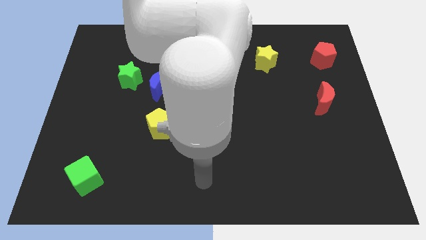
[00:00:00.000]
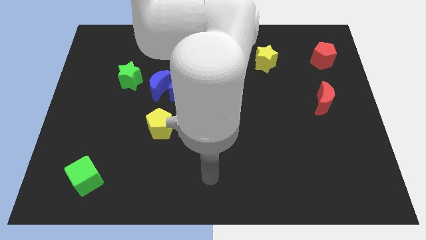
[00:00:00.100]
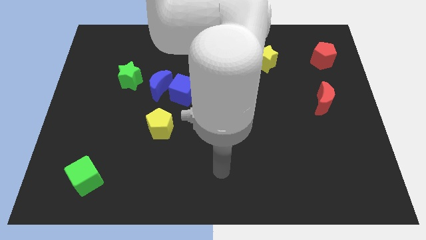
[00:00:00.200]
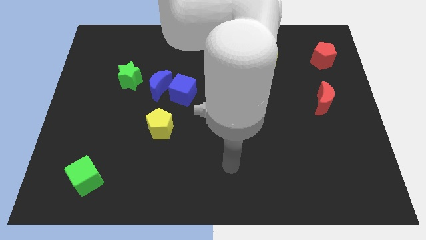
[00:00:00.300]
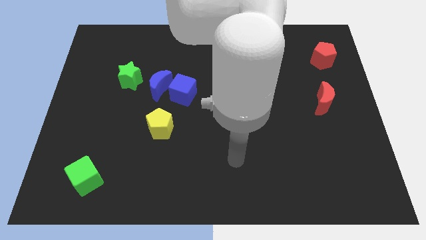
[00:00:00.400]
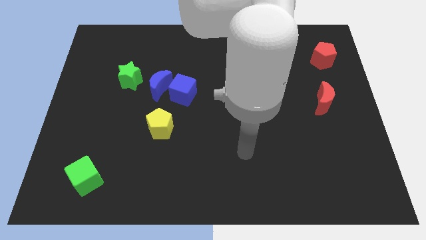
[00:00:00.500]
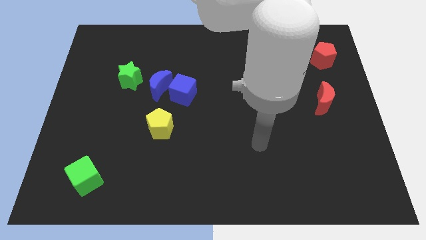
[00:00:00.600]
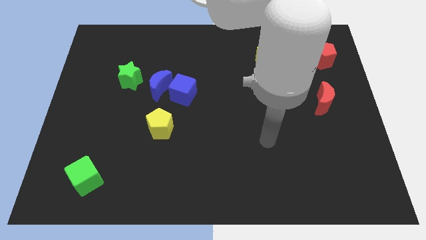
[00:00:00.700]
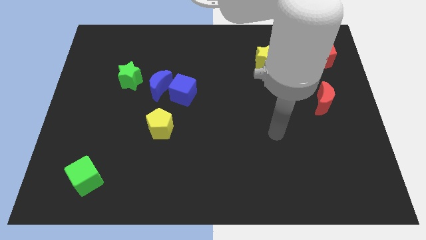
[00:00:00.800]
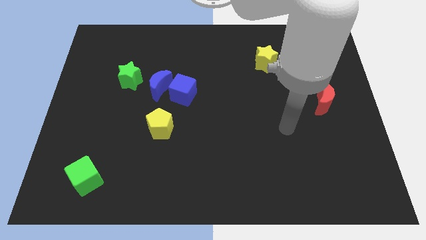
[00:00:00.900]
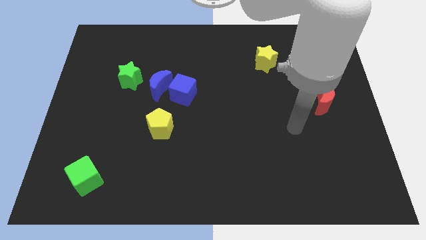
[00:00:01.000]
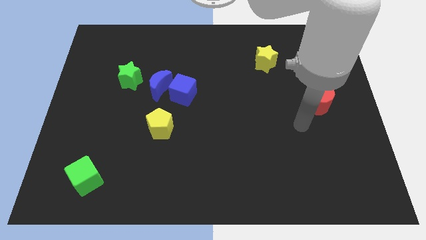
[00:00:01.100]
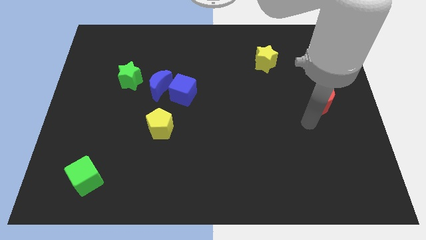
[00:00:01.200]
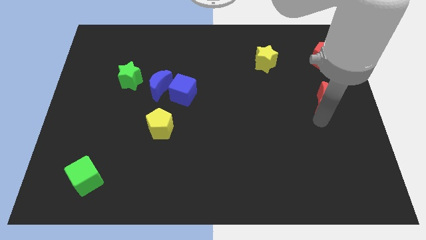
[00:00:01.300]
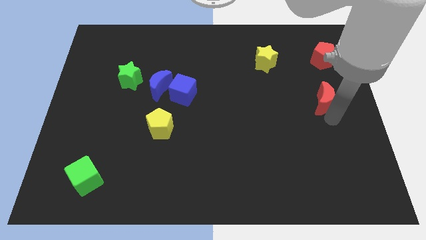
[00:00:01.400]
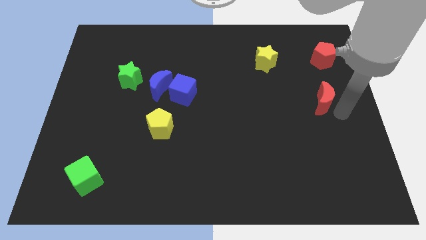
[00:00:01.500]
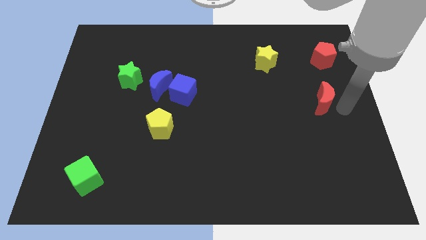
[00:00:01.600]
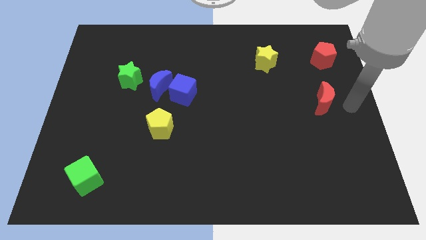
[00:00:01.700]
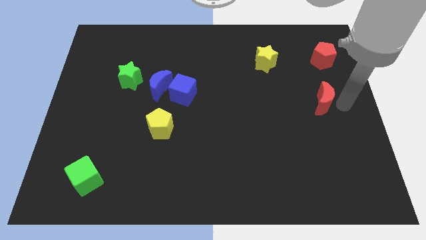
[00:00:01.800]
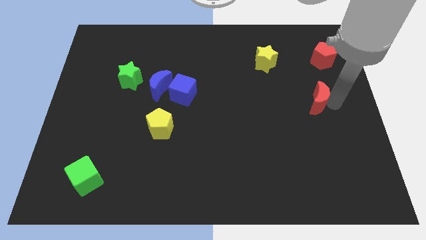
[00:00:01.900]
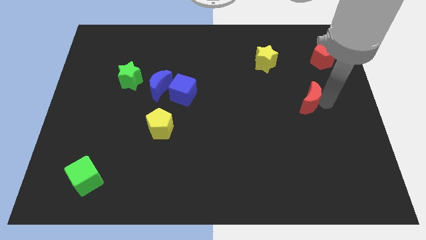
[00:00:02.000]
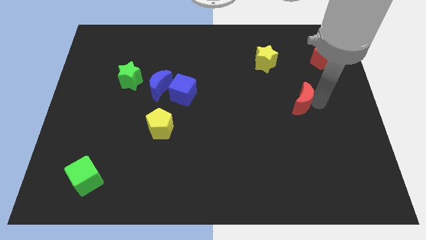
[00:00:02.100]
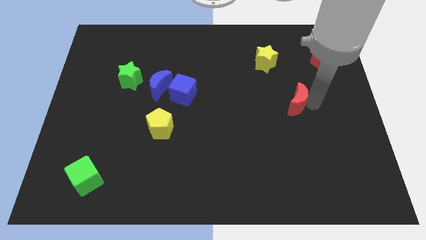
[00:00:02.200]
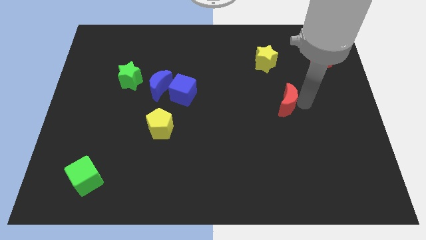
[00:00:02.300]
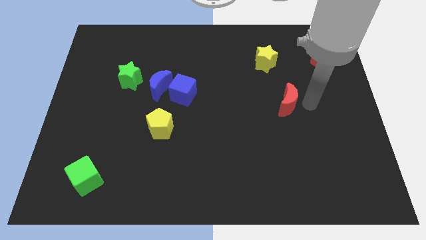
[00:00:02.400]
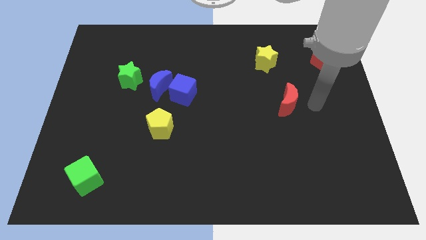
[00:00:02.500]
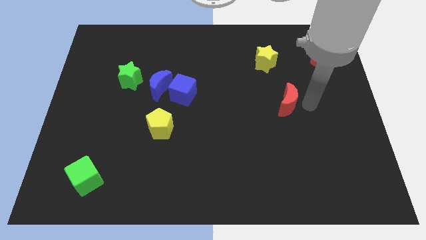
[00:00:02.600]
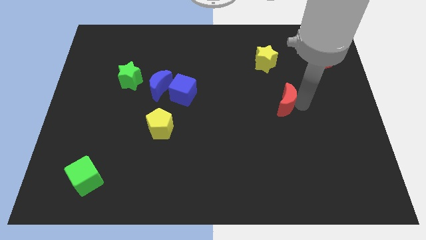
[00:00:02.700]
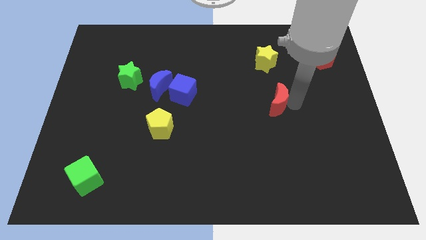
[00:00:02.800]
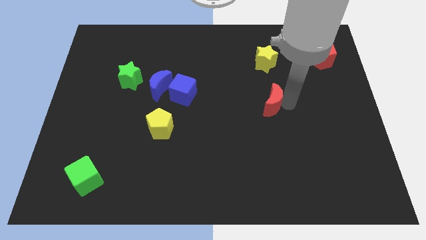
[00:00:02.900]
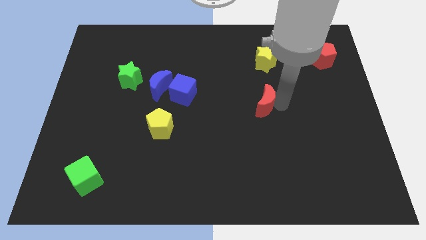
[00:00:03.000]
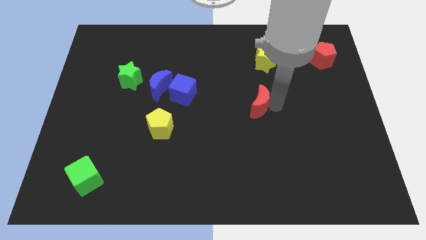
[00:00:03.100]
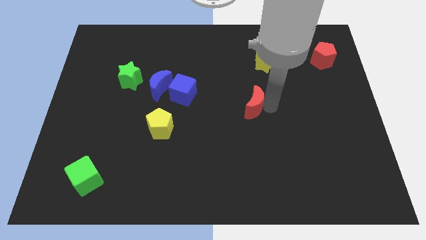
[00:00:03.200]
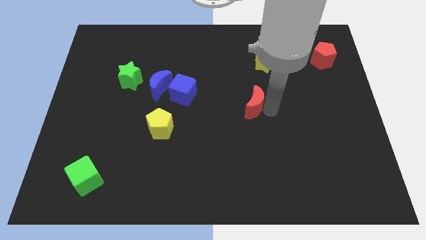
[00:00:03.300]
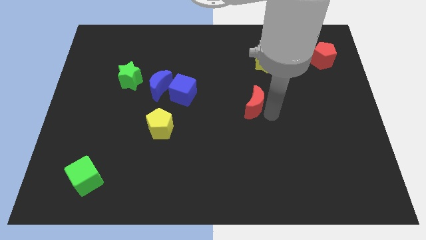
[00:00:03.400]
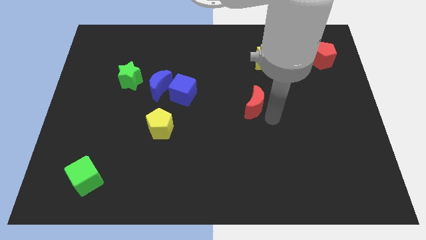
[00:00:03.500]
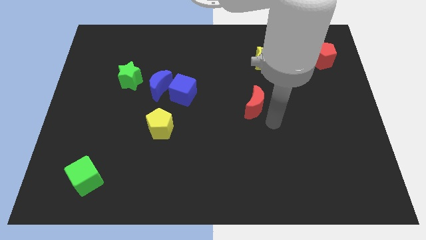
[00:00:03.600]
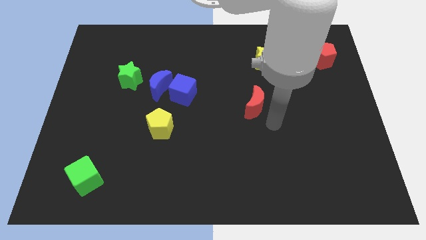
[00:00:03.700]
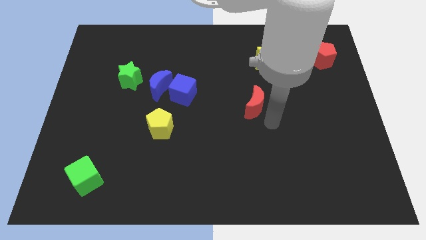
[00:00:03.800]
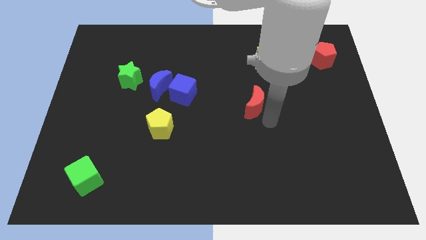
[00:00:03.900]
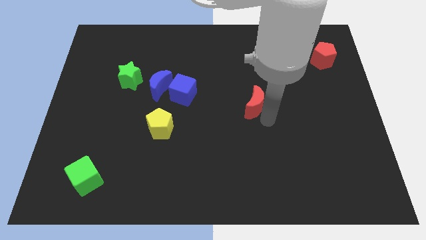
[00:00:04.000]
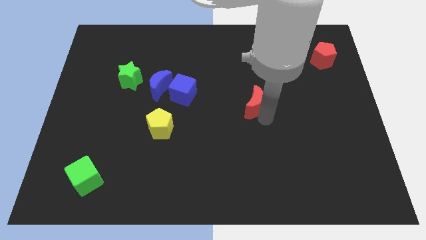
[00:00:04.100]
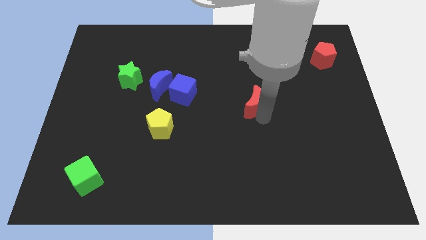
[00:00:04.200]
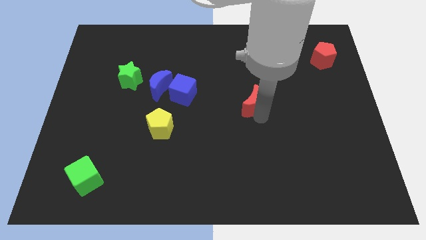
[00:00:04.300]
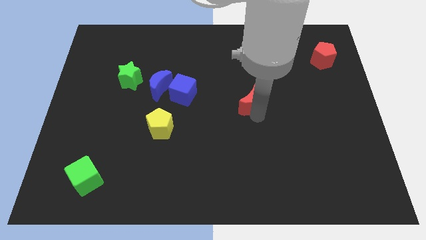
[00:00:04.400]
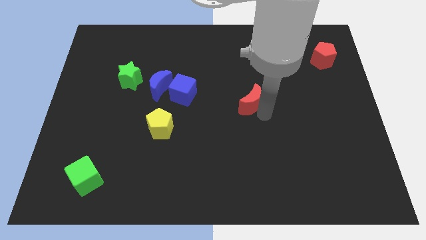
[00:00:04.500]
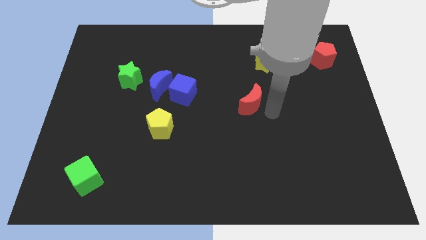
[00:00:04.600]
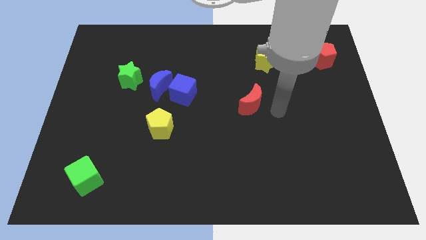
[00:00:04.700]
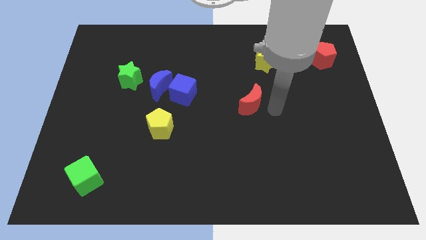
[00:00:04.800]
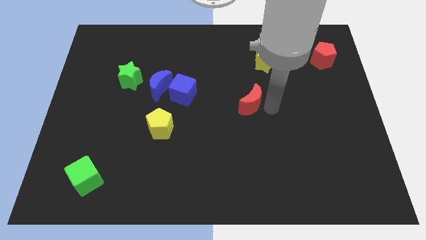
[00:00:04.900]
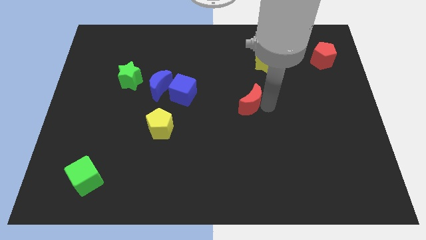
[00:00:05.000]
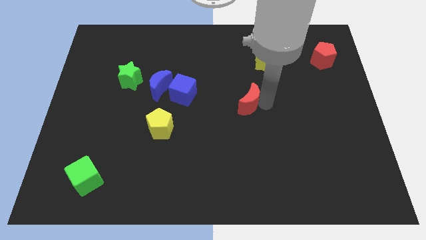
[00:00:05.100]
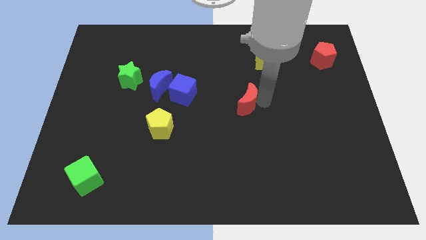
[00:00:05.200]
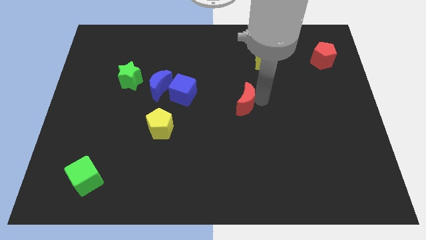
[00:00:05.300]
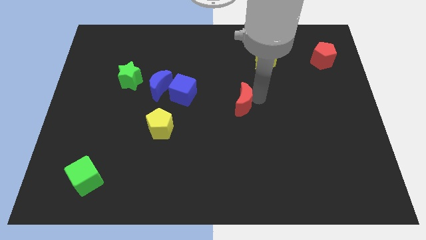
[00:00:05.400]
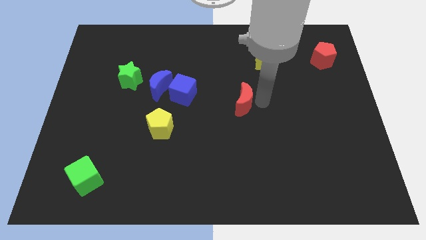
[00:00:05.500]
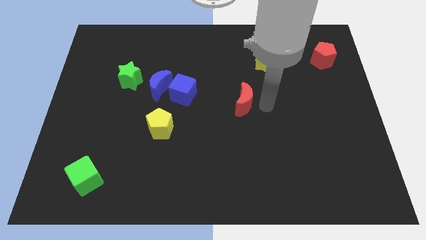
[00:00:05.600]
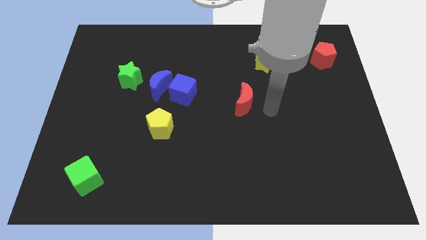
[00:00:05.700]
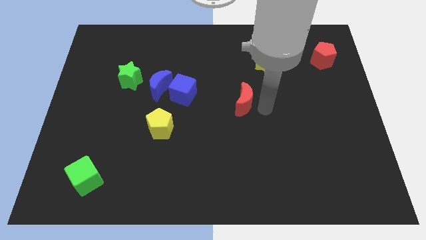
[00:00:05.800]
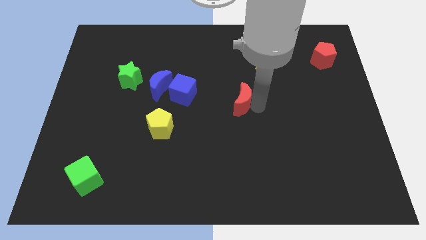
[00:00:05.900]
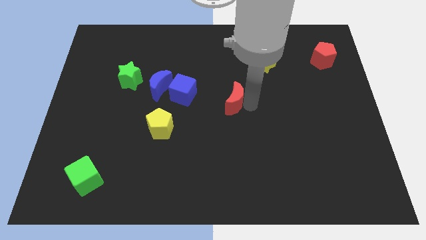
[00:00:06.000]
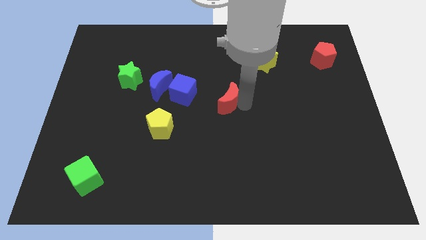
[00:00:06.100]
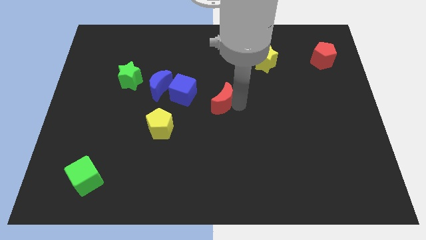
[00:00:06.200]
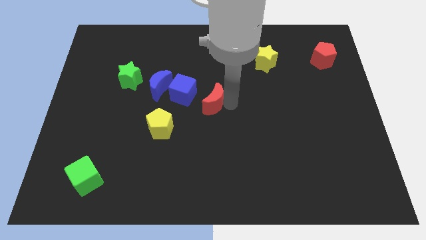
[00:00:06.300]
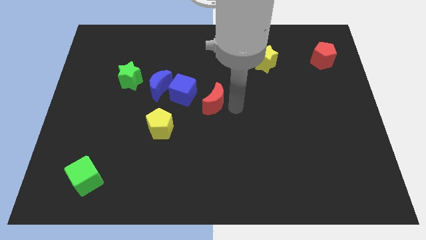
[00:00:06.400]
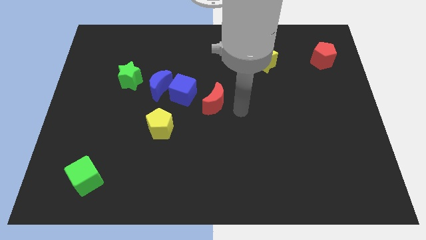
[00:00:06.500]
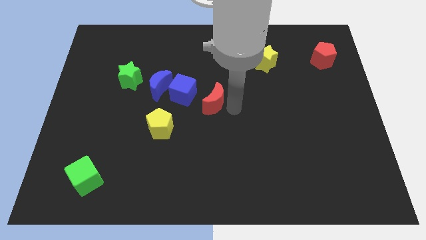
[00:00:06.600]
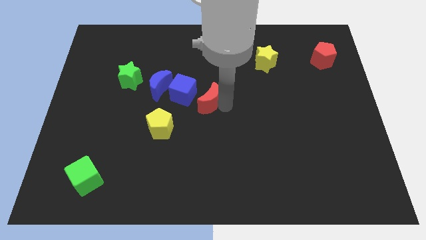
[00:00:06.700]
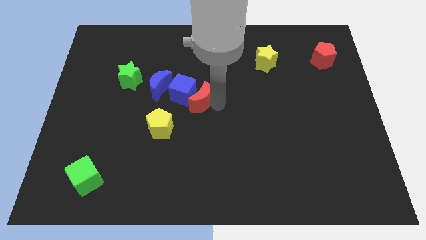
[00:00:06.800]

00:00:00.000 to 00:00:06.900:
push the red moon to the blue cube
